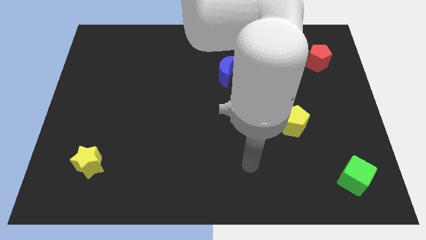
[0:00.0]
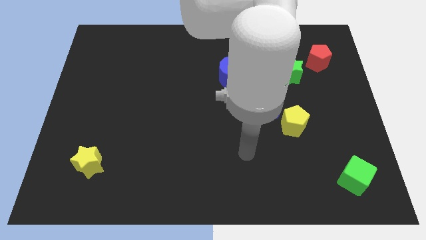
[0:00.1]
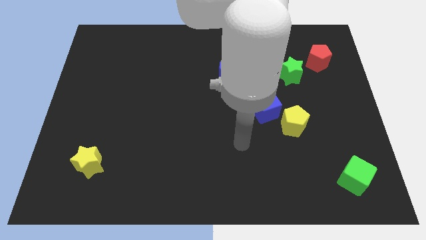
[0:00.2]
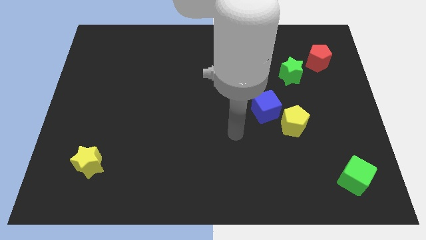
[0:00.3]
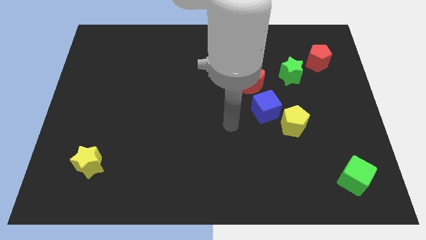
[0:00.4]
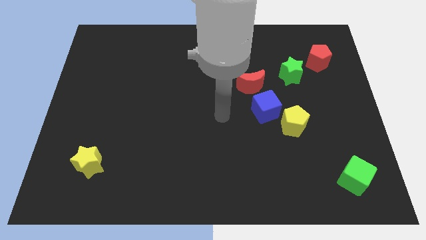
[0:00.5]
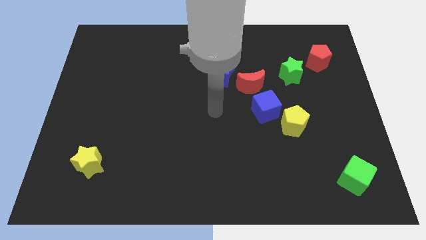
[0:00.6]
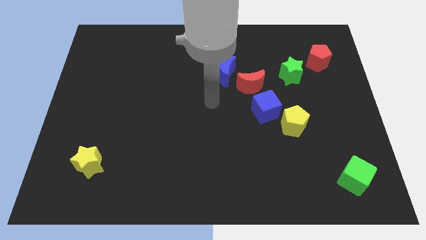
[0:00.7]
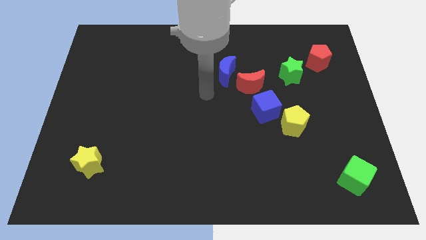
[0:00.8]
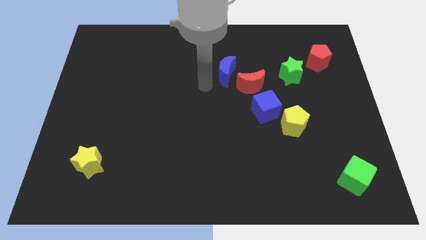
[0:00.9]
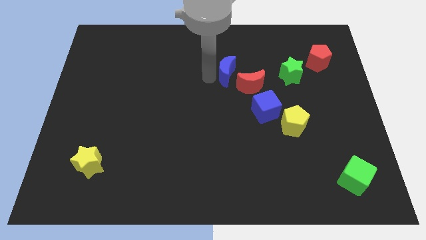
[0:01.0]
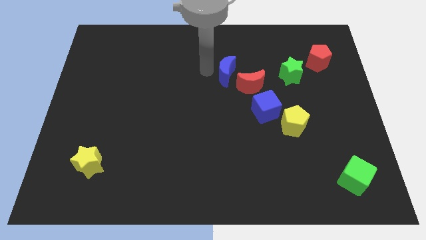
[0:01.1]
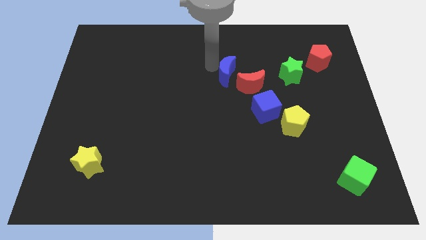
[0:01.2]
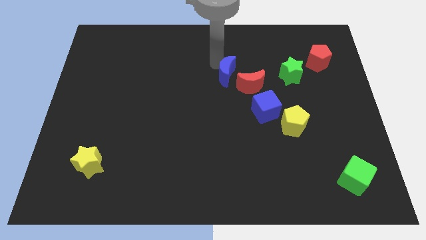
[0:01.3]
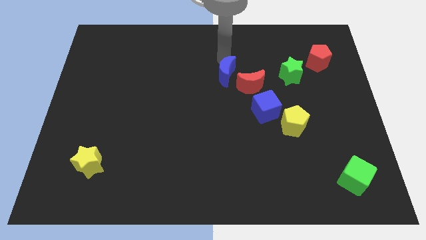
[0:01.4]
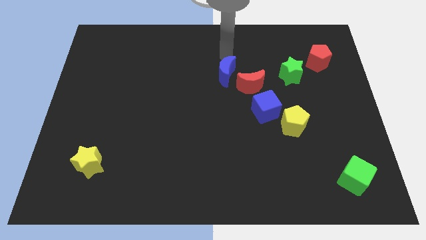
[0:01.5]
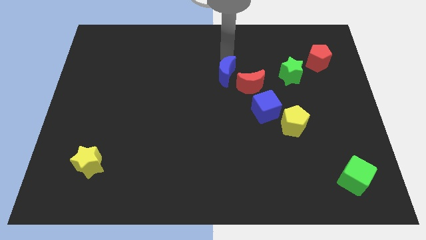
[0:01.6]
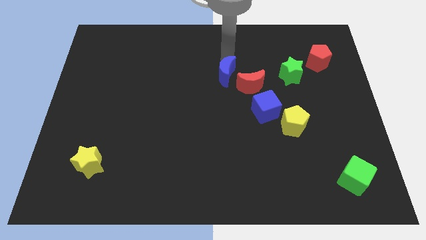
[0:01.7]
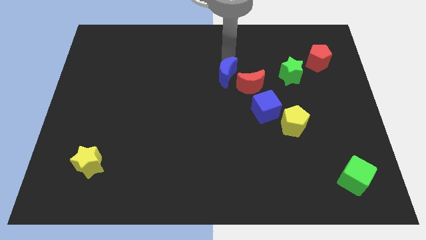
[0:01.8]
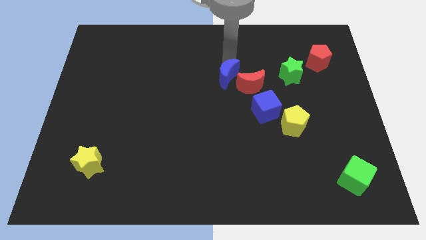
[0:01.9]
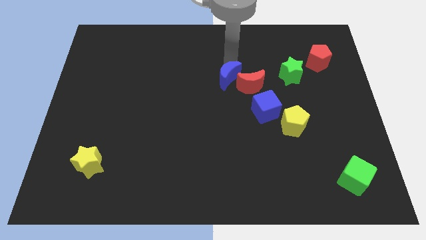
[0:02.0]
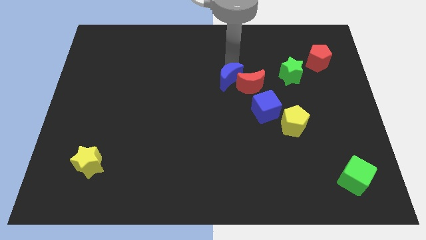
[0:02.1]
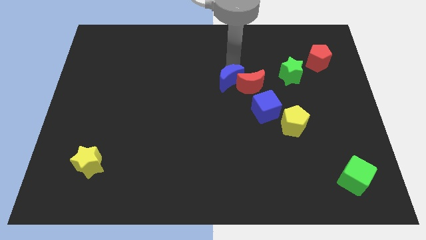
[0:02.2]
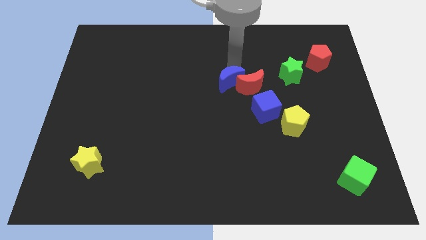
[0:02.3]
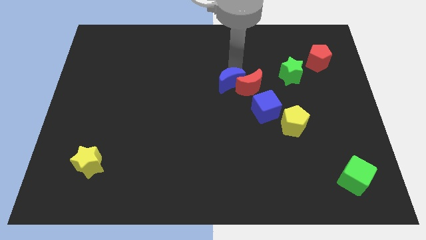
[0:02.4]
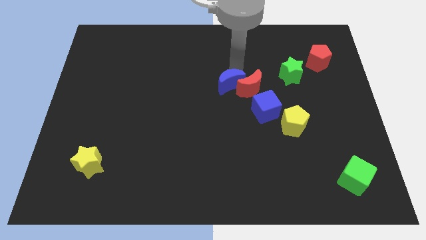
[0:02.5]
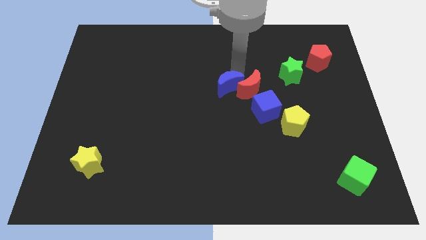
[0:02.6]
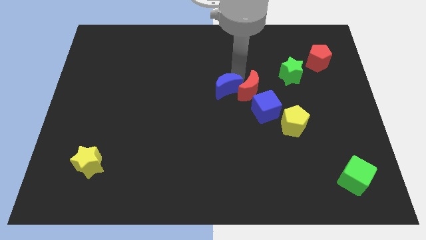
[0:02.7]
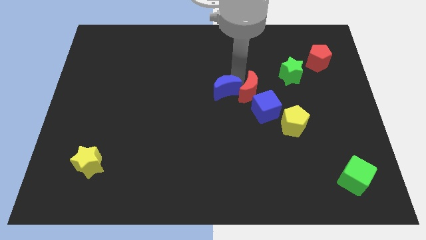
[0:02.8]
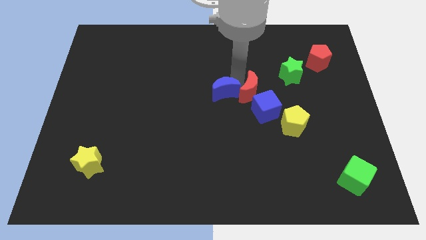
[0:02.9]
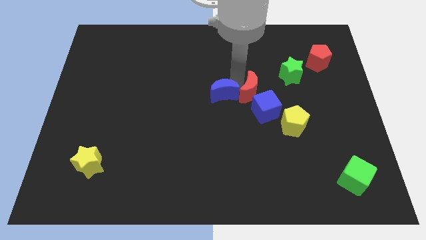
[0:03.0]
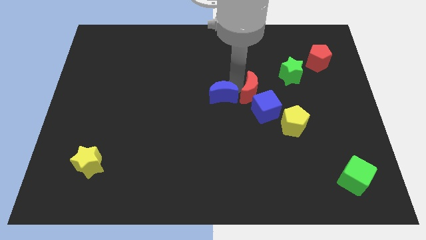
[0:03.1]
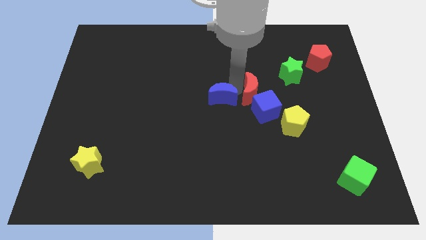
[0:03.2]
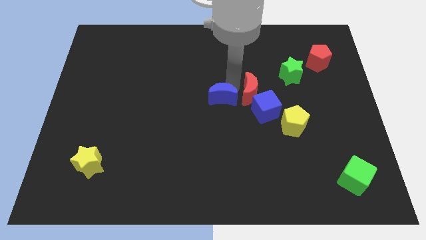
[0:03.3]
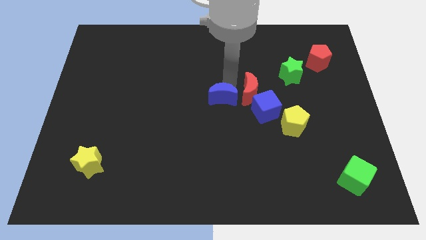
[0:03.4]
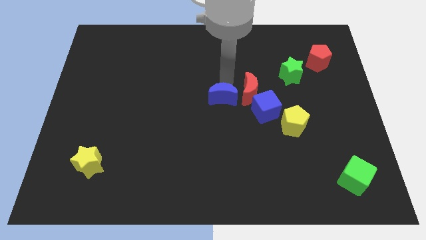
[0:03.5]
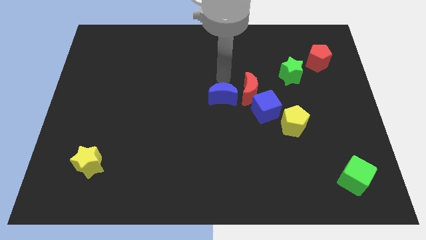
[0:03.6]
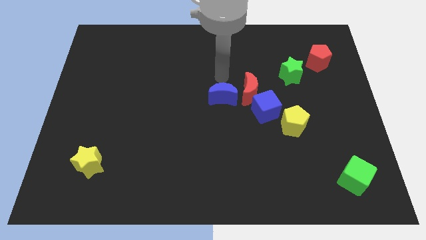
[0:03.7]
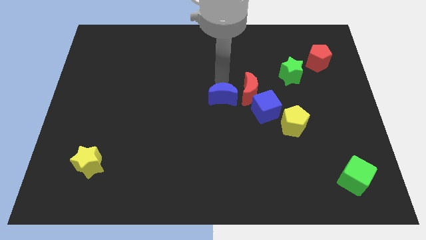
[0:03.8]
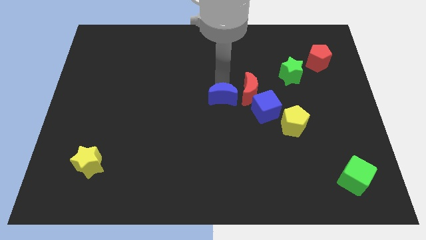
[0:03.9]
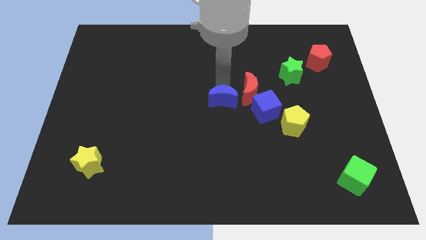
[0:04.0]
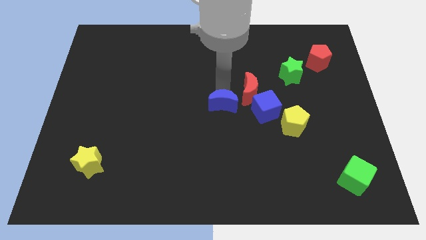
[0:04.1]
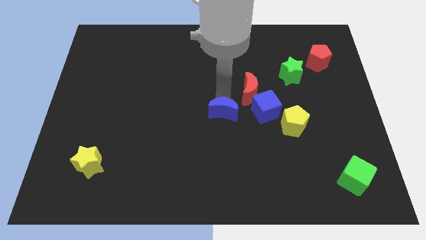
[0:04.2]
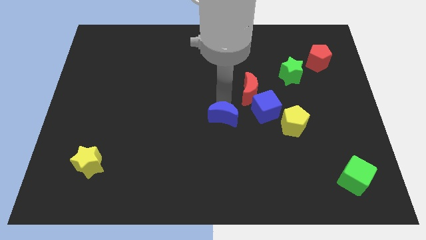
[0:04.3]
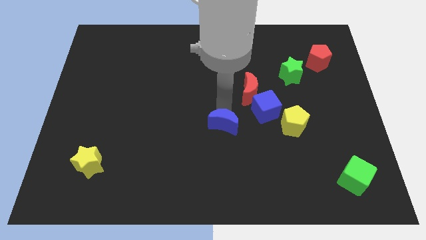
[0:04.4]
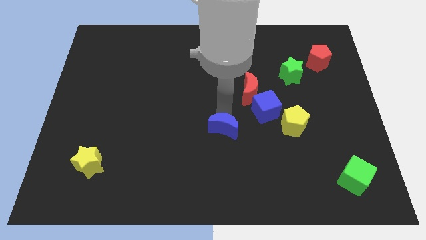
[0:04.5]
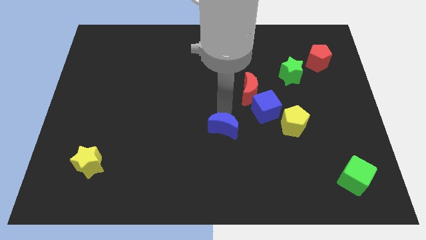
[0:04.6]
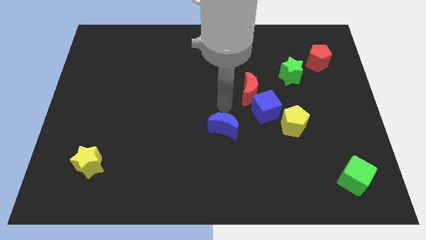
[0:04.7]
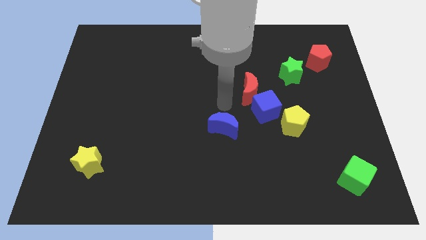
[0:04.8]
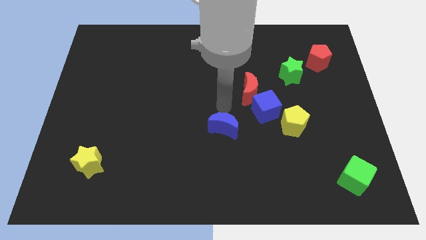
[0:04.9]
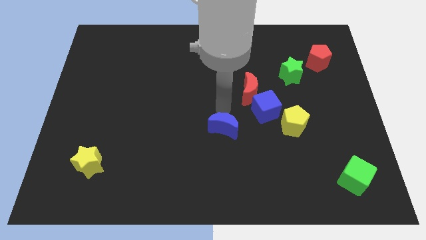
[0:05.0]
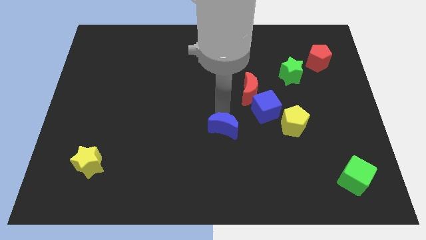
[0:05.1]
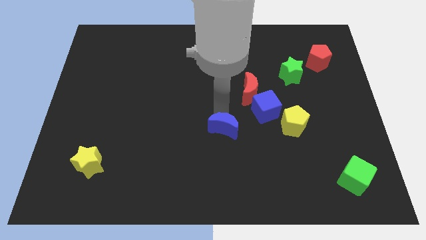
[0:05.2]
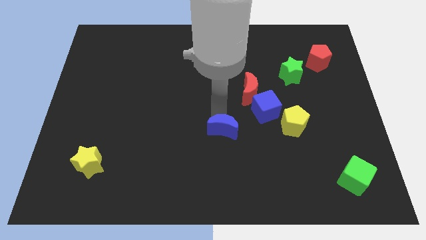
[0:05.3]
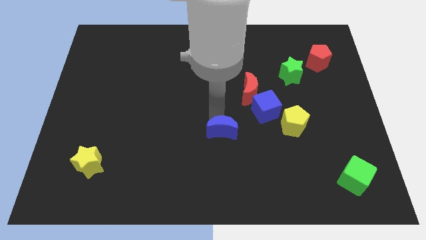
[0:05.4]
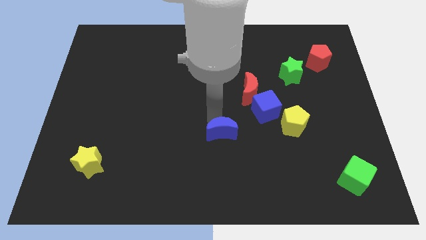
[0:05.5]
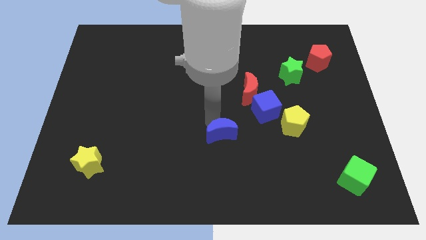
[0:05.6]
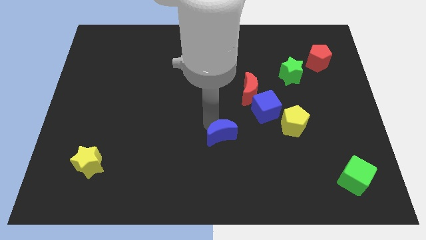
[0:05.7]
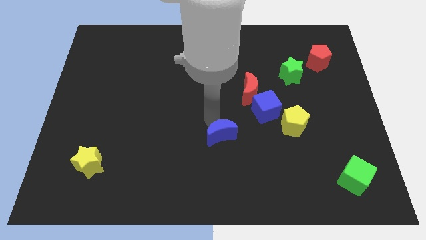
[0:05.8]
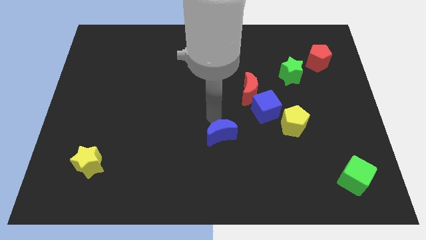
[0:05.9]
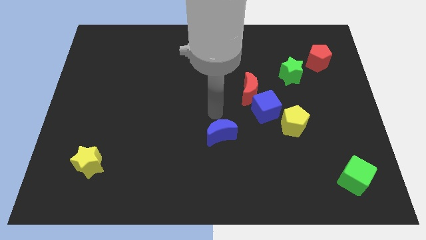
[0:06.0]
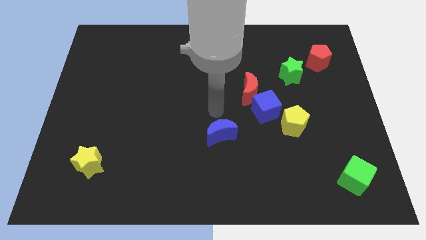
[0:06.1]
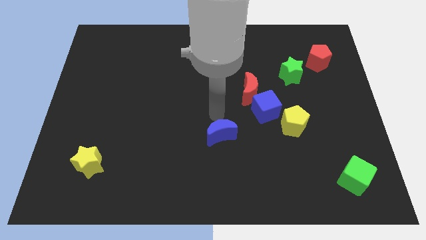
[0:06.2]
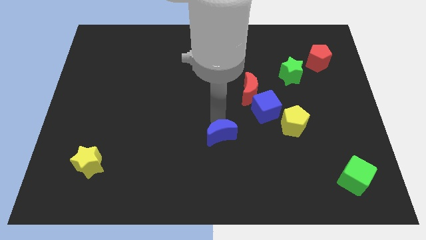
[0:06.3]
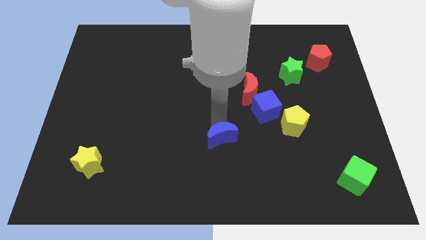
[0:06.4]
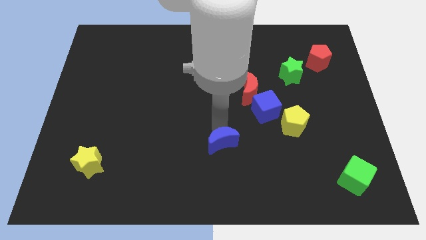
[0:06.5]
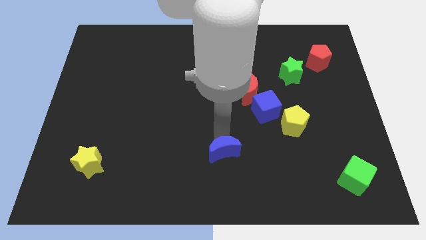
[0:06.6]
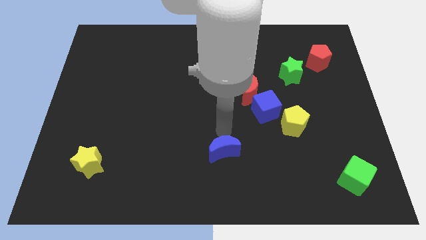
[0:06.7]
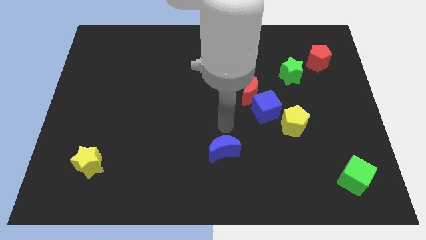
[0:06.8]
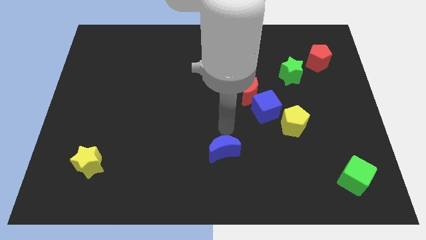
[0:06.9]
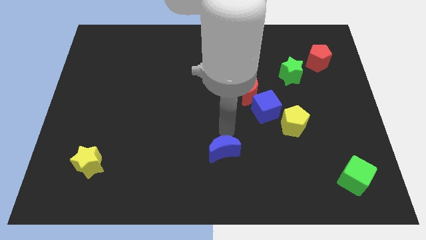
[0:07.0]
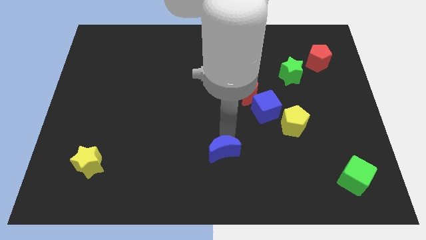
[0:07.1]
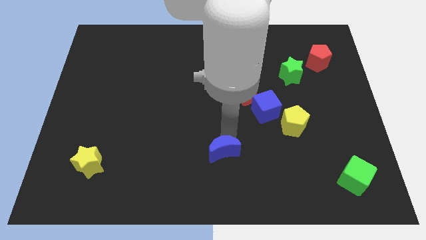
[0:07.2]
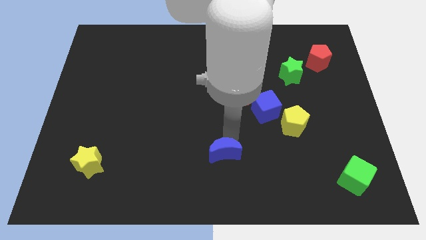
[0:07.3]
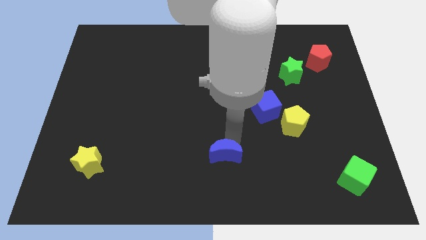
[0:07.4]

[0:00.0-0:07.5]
move the blue moon to the bottom side
